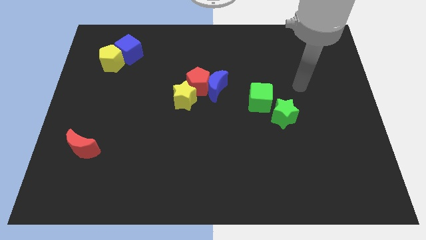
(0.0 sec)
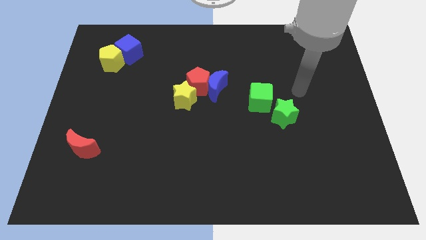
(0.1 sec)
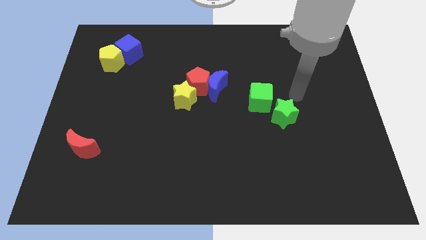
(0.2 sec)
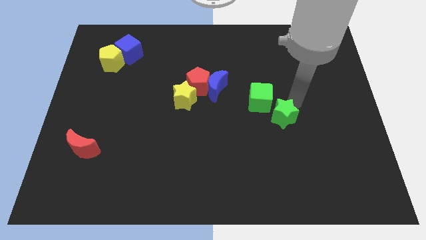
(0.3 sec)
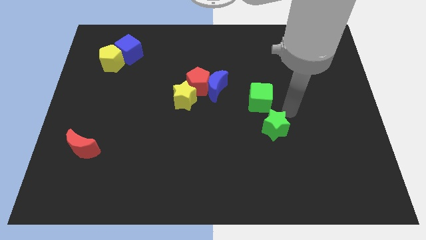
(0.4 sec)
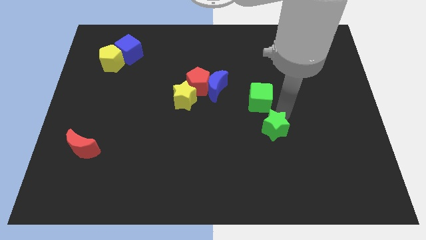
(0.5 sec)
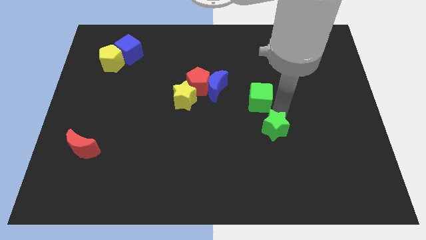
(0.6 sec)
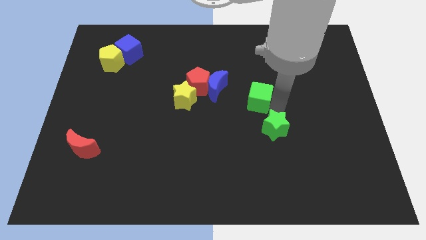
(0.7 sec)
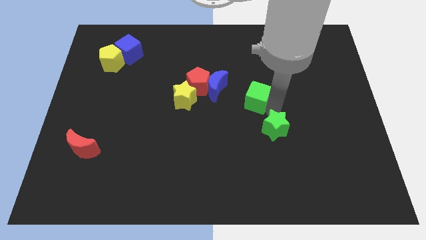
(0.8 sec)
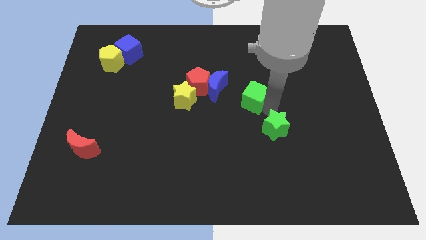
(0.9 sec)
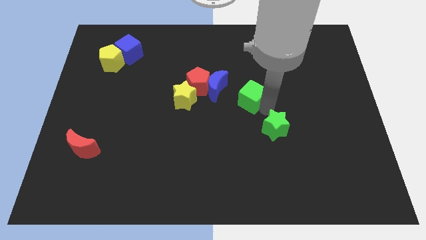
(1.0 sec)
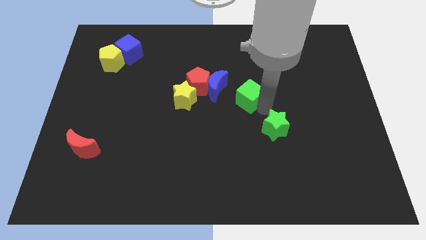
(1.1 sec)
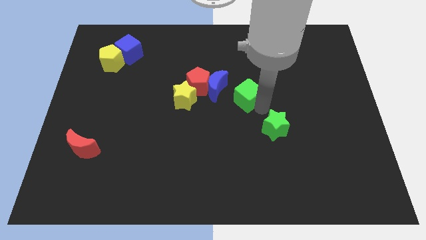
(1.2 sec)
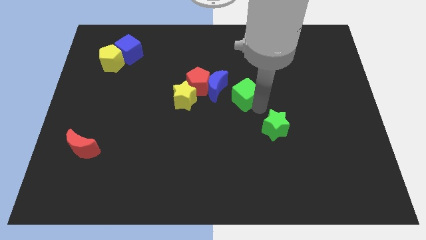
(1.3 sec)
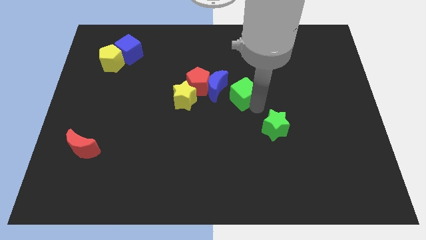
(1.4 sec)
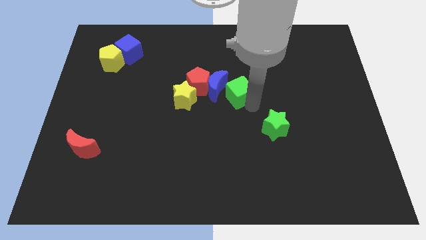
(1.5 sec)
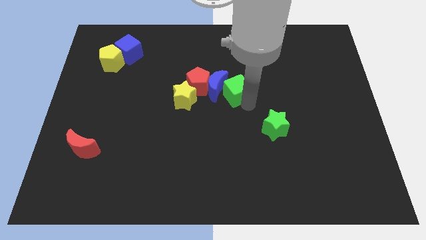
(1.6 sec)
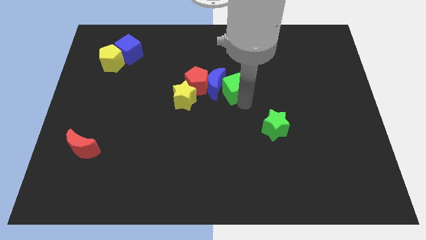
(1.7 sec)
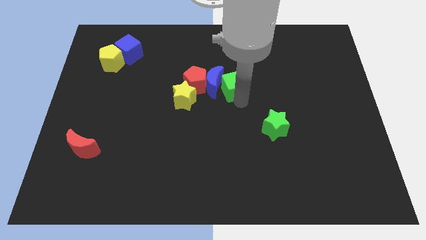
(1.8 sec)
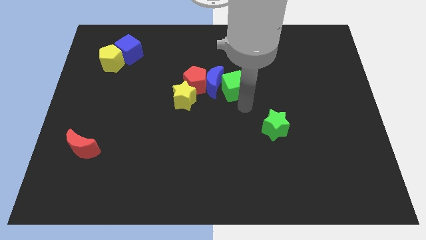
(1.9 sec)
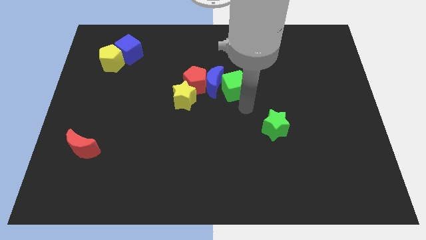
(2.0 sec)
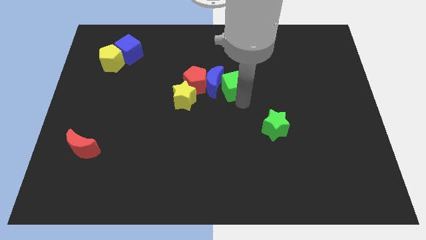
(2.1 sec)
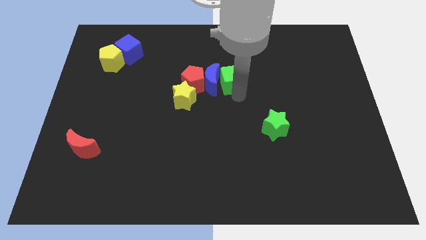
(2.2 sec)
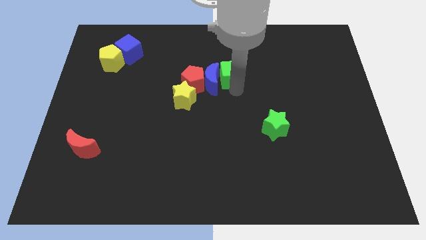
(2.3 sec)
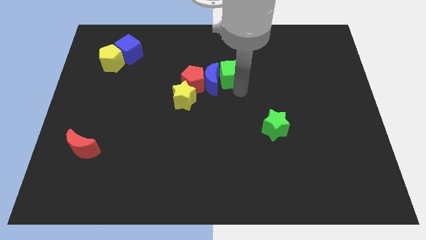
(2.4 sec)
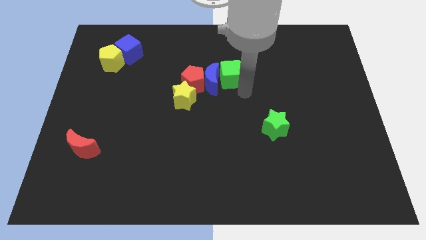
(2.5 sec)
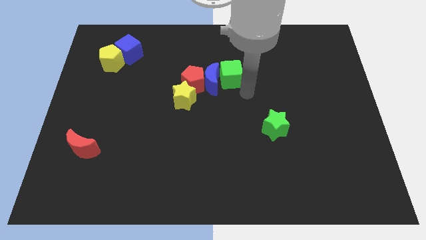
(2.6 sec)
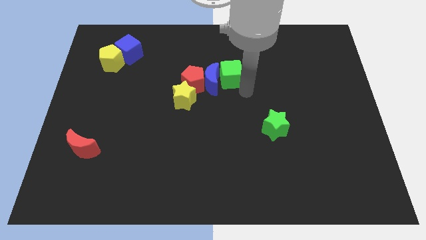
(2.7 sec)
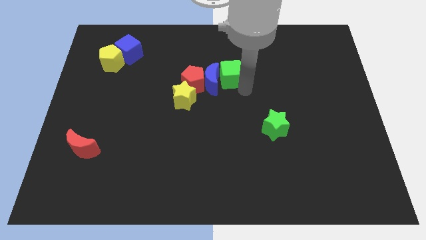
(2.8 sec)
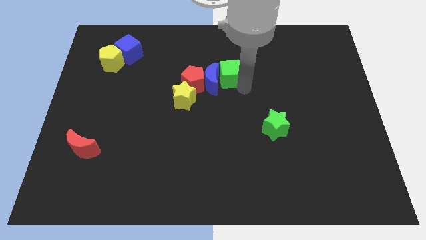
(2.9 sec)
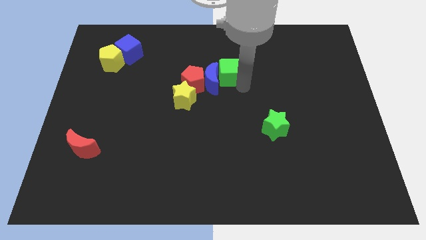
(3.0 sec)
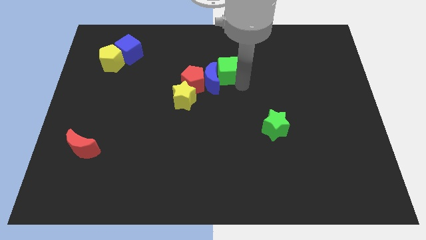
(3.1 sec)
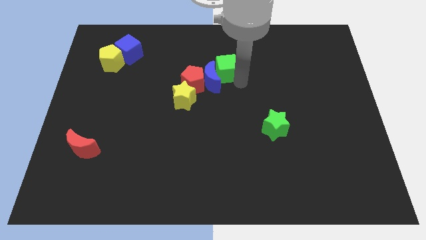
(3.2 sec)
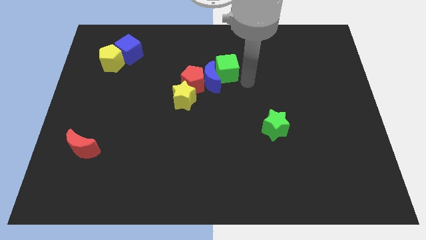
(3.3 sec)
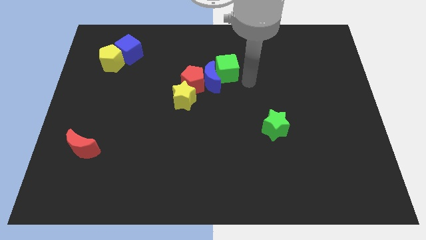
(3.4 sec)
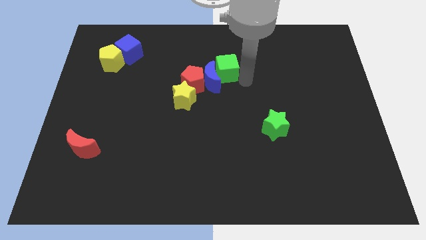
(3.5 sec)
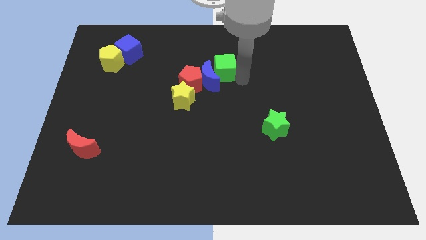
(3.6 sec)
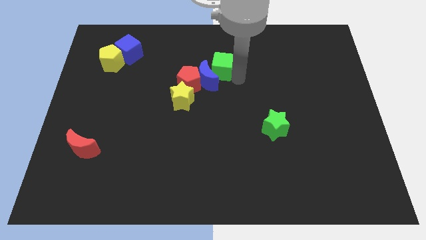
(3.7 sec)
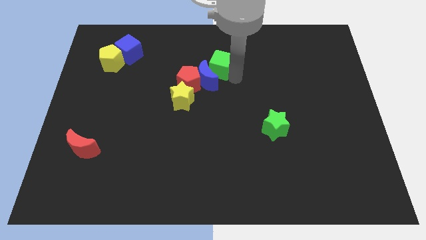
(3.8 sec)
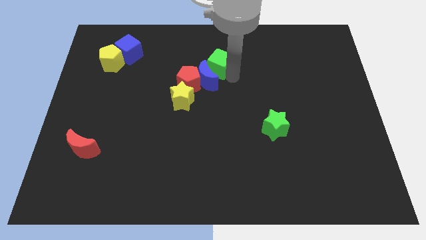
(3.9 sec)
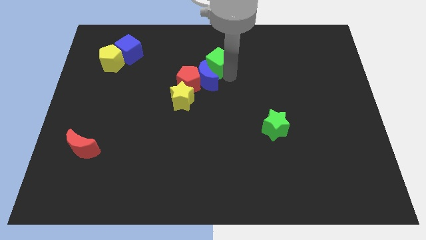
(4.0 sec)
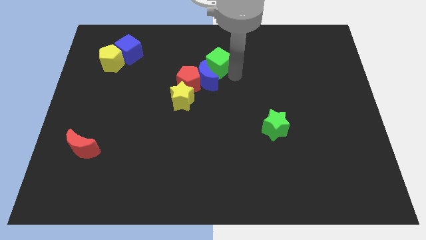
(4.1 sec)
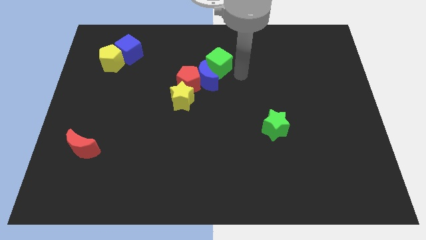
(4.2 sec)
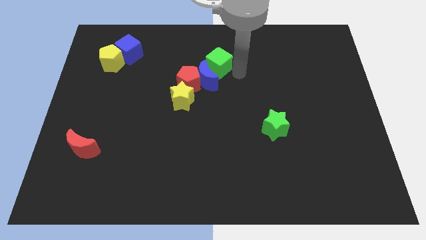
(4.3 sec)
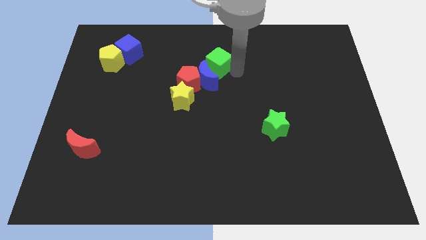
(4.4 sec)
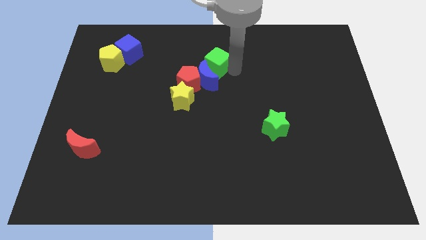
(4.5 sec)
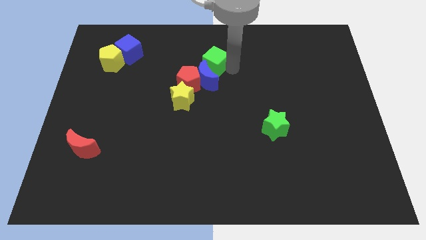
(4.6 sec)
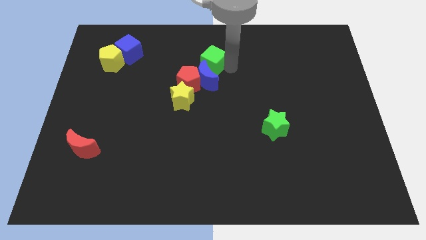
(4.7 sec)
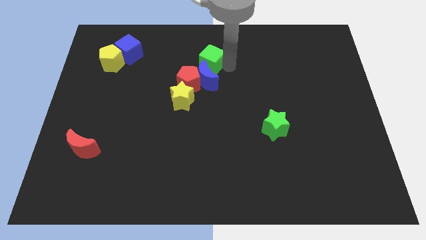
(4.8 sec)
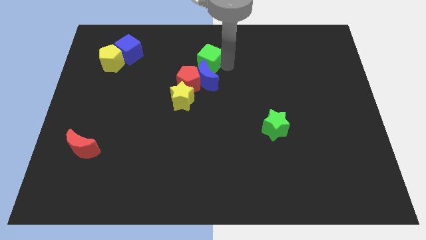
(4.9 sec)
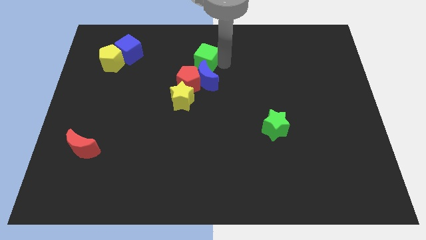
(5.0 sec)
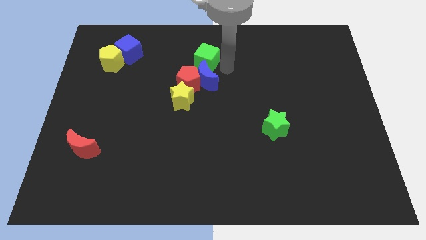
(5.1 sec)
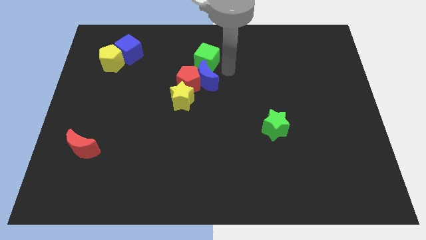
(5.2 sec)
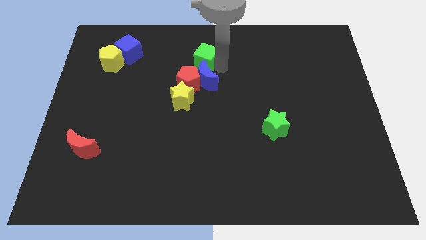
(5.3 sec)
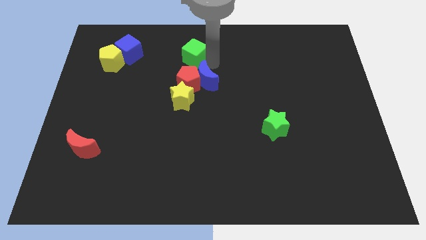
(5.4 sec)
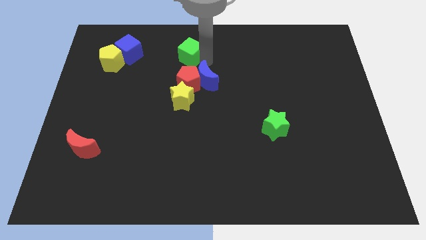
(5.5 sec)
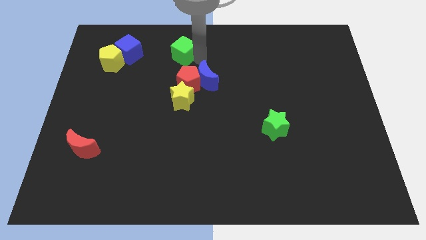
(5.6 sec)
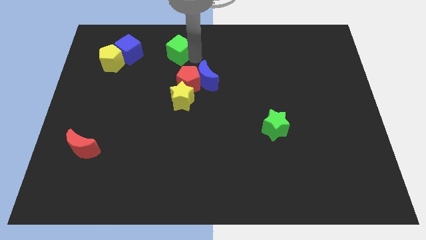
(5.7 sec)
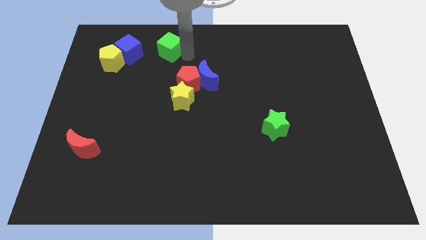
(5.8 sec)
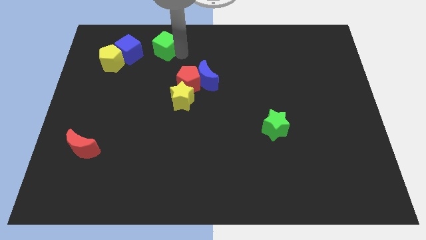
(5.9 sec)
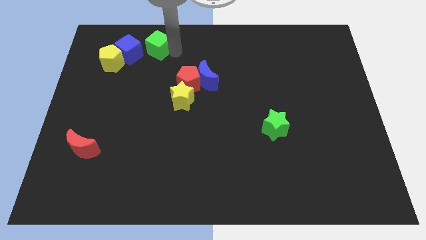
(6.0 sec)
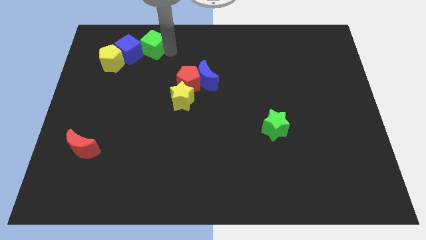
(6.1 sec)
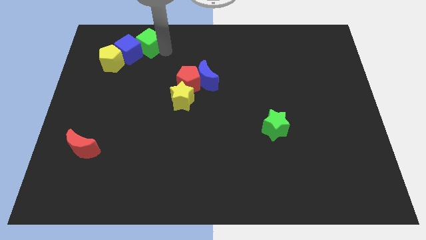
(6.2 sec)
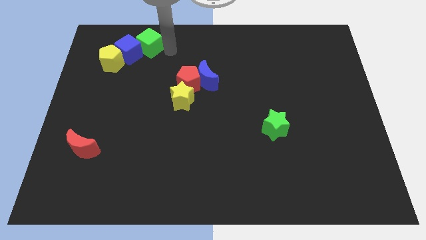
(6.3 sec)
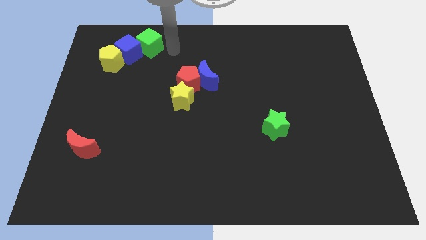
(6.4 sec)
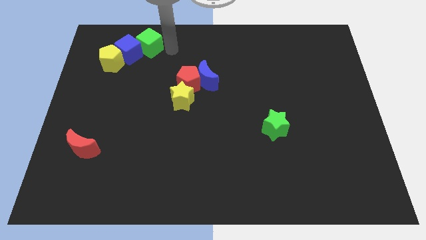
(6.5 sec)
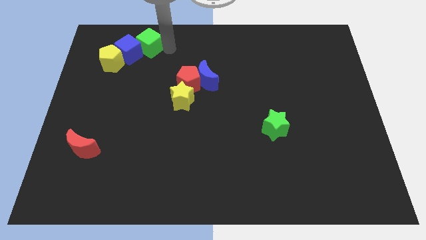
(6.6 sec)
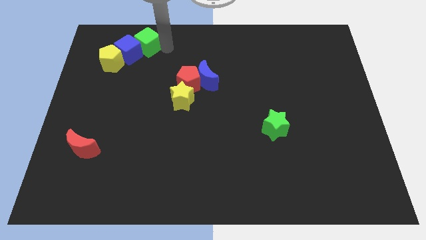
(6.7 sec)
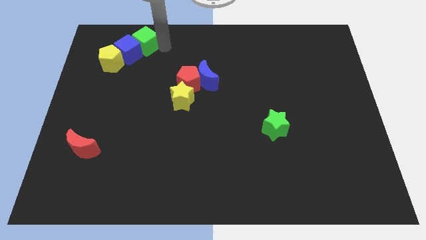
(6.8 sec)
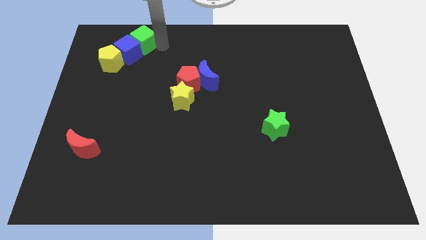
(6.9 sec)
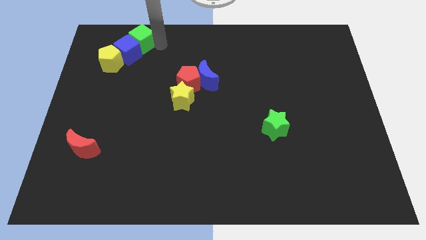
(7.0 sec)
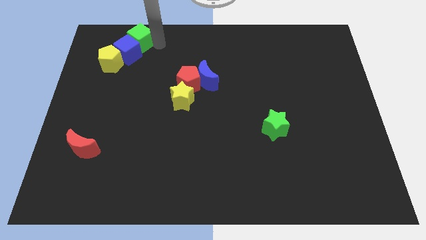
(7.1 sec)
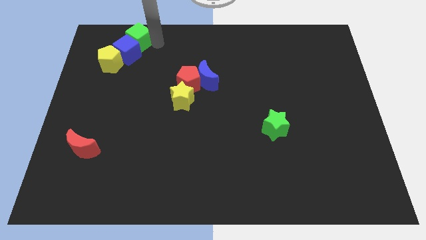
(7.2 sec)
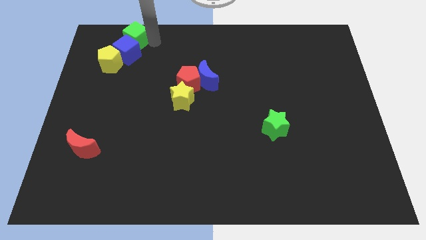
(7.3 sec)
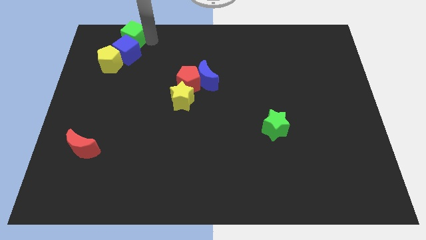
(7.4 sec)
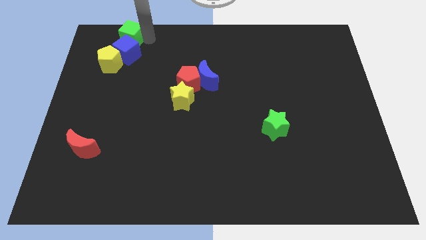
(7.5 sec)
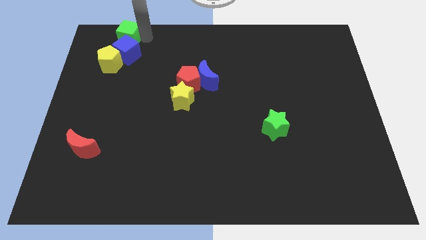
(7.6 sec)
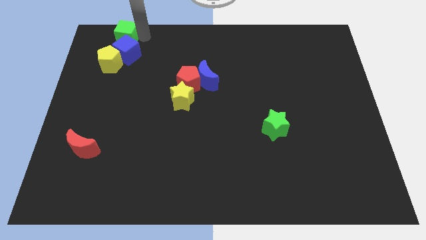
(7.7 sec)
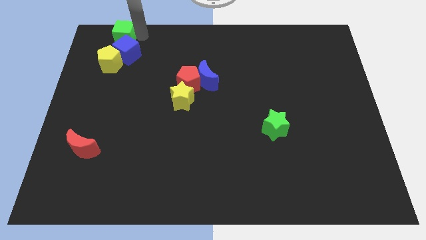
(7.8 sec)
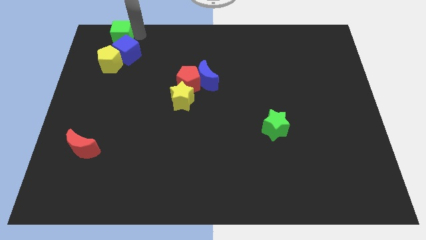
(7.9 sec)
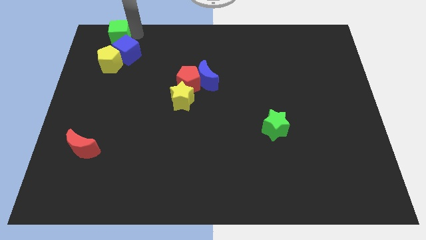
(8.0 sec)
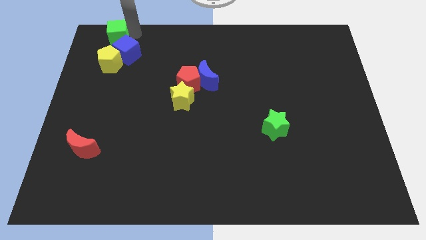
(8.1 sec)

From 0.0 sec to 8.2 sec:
push the green cube to the top left corner
